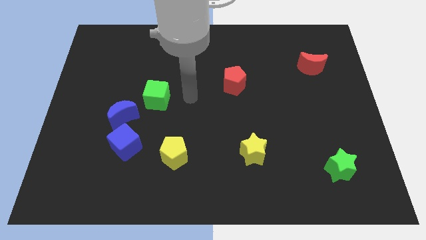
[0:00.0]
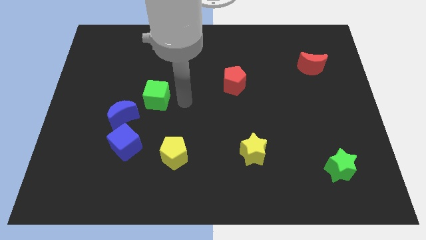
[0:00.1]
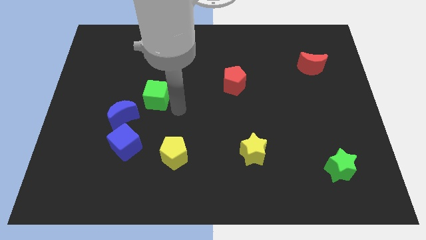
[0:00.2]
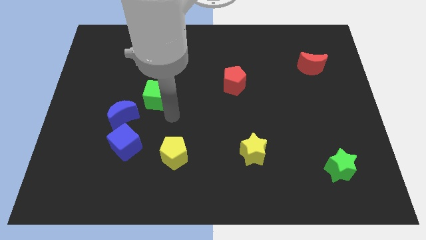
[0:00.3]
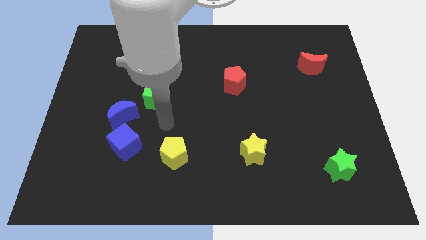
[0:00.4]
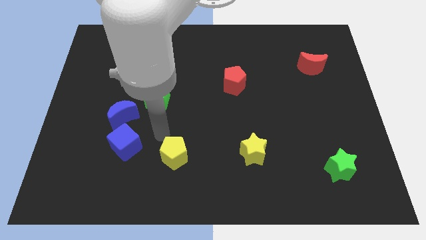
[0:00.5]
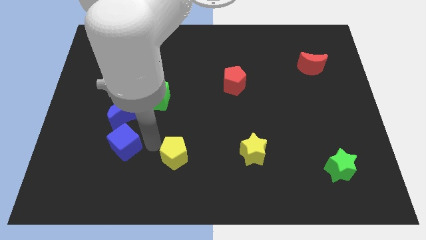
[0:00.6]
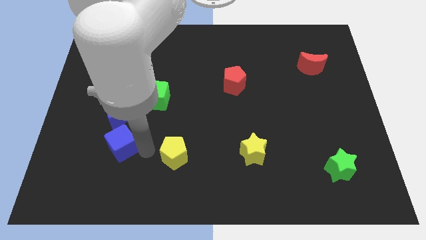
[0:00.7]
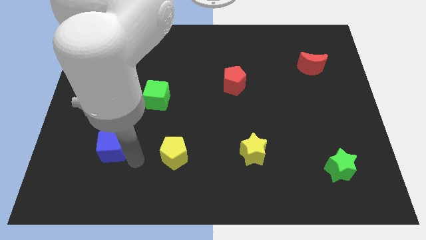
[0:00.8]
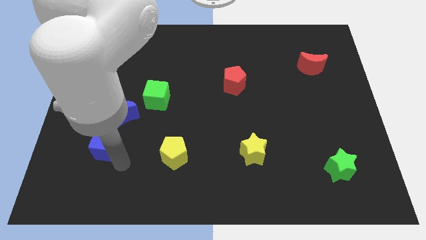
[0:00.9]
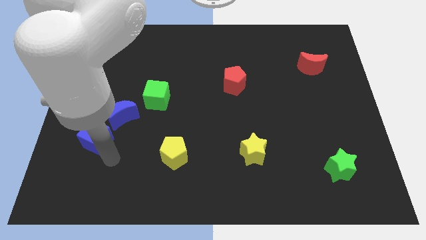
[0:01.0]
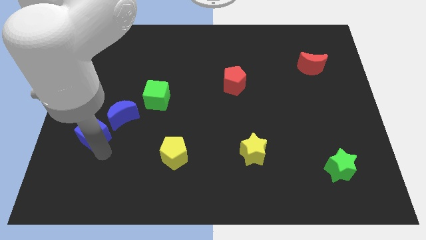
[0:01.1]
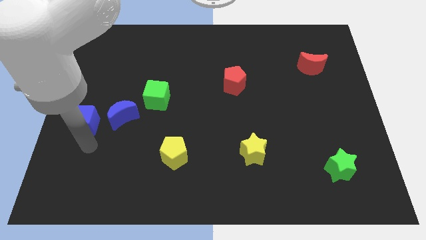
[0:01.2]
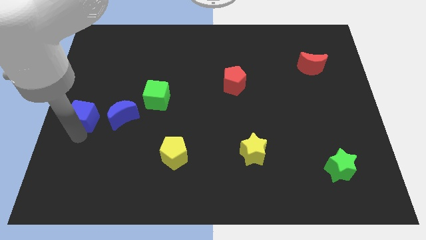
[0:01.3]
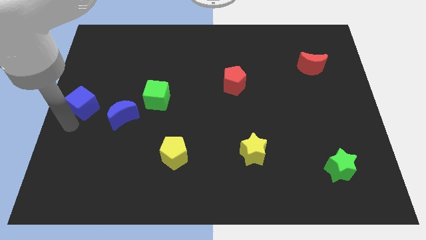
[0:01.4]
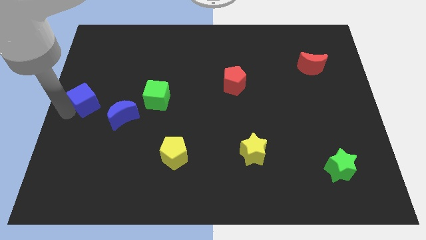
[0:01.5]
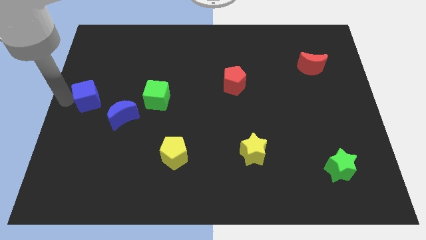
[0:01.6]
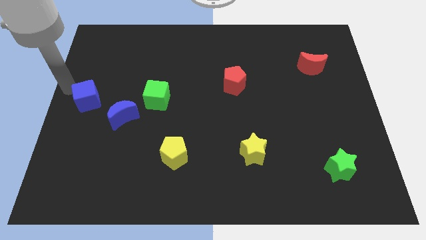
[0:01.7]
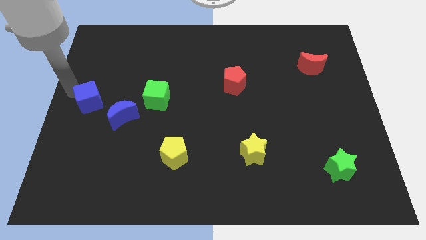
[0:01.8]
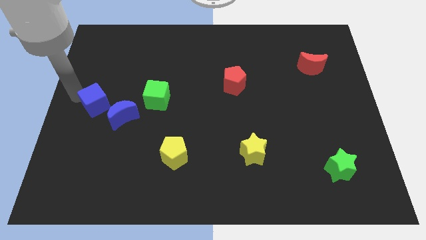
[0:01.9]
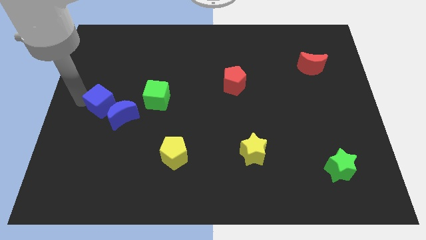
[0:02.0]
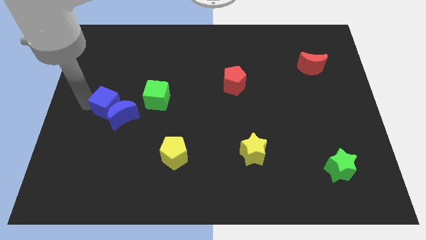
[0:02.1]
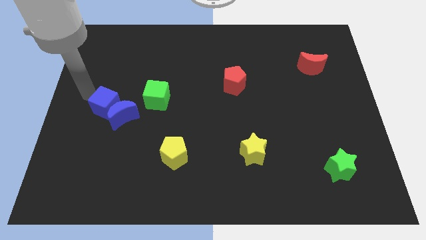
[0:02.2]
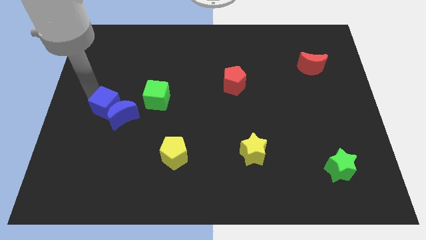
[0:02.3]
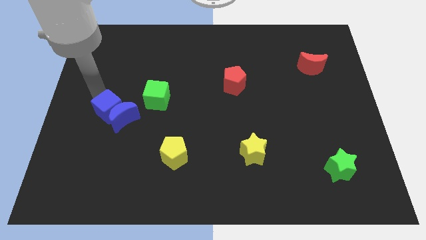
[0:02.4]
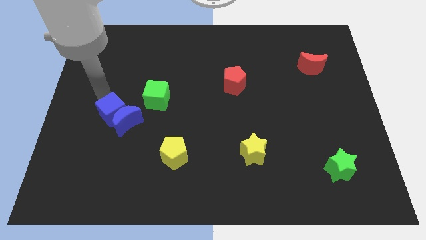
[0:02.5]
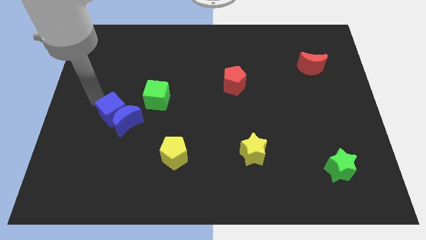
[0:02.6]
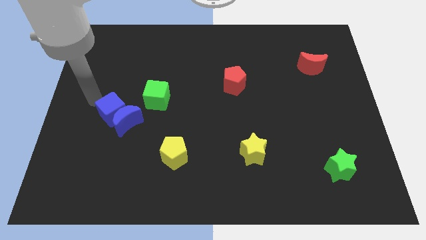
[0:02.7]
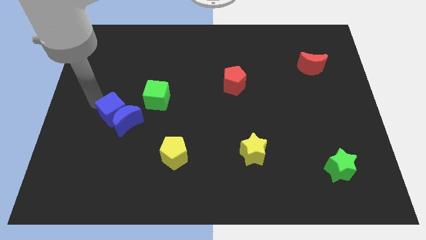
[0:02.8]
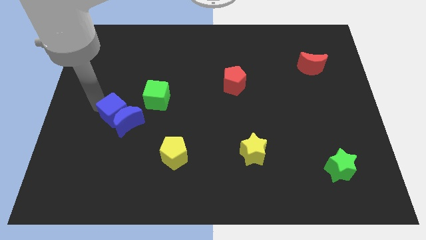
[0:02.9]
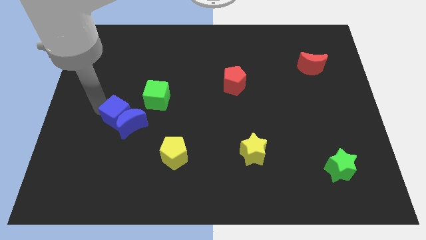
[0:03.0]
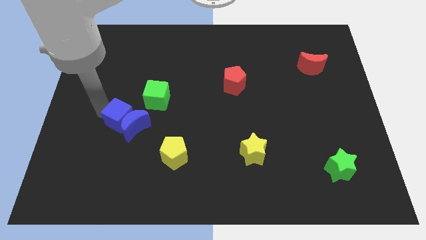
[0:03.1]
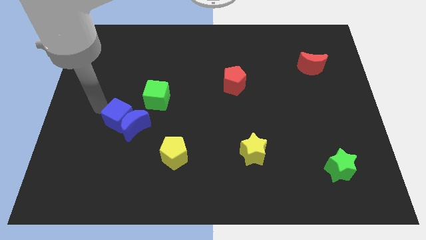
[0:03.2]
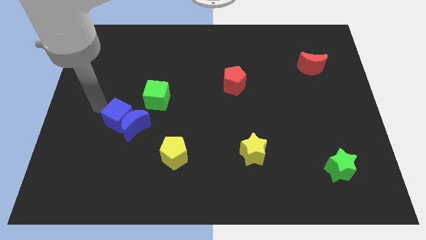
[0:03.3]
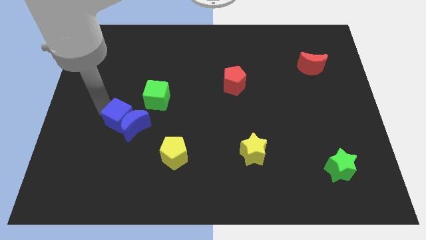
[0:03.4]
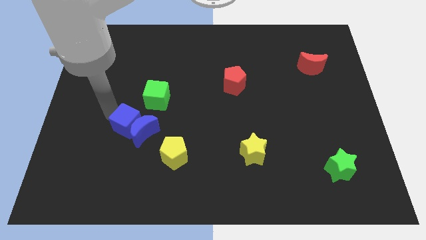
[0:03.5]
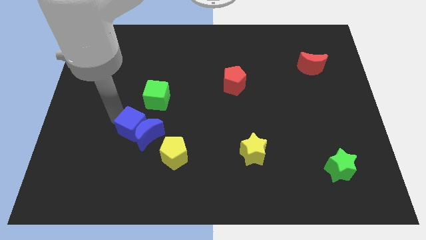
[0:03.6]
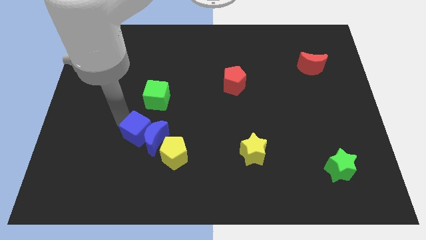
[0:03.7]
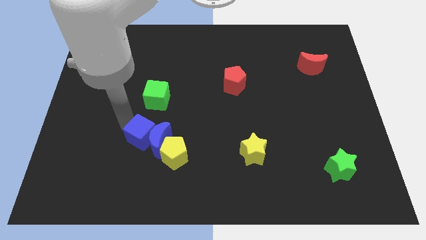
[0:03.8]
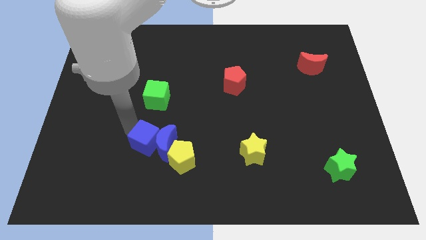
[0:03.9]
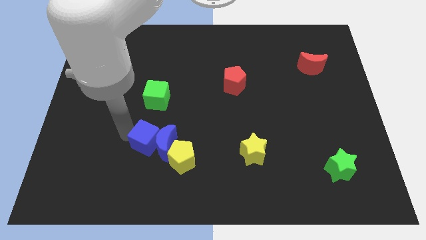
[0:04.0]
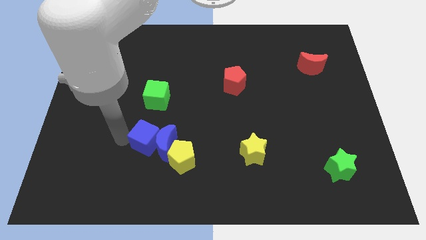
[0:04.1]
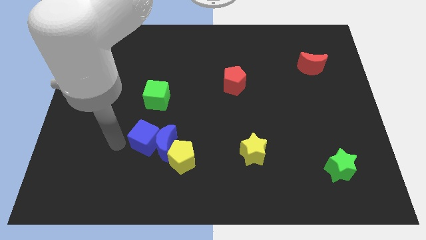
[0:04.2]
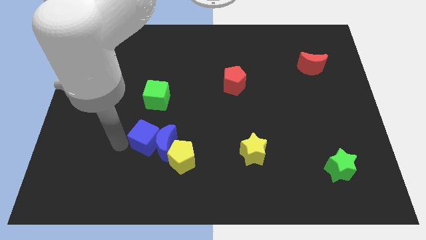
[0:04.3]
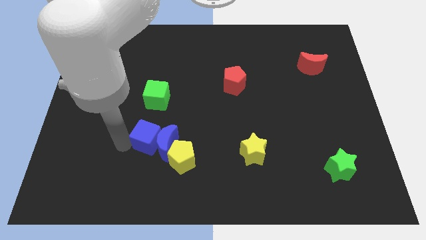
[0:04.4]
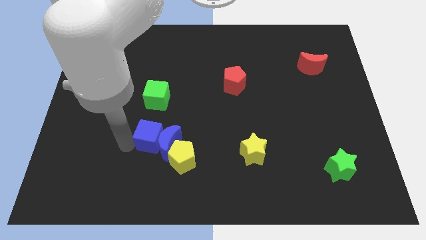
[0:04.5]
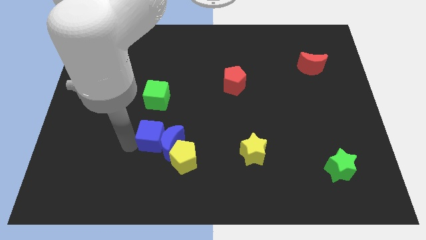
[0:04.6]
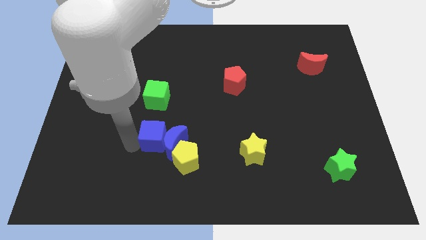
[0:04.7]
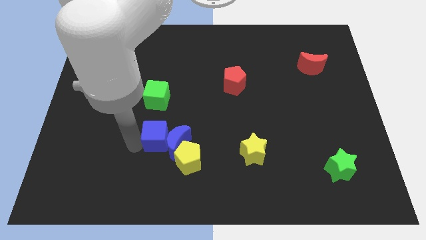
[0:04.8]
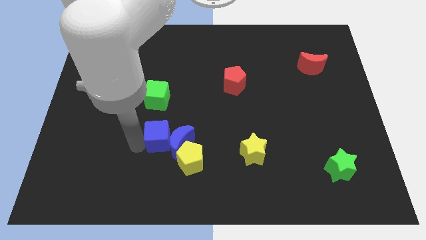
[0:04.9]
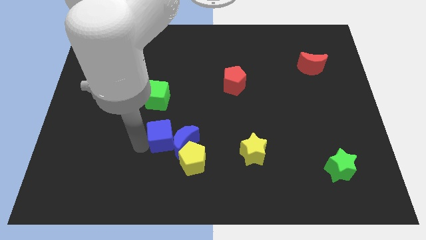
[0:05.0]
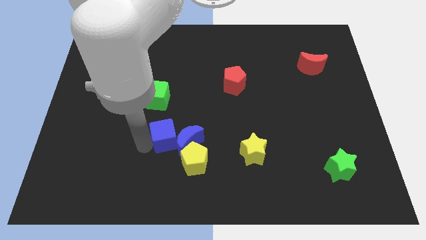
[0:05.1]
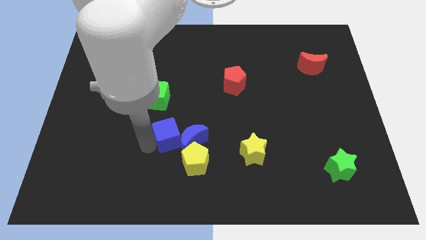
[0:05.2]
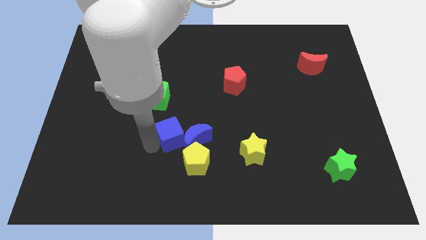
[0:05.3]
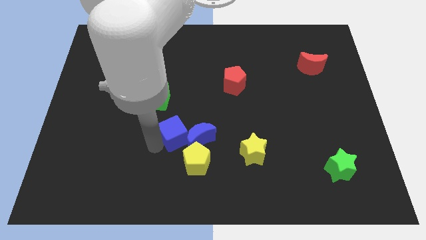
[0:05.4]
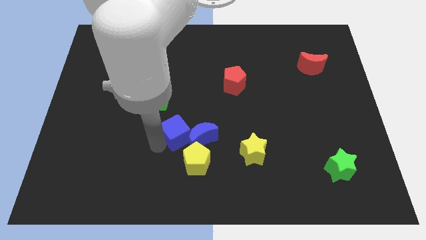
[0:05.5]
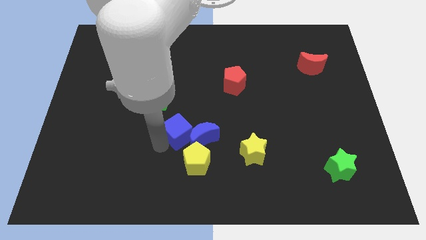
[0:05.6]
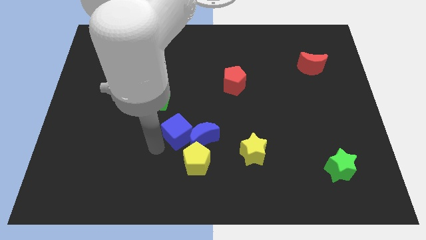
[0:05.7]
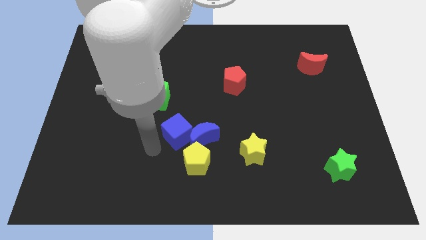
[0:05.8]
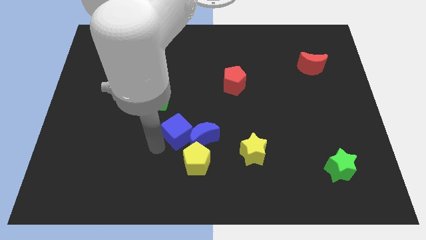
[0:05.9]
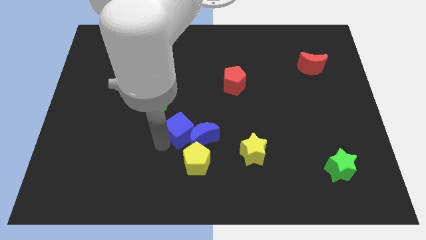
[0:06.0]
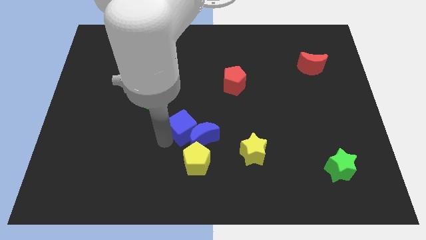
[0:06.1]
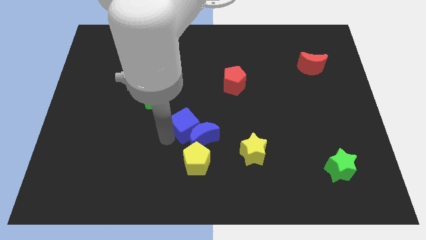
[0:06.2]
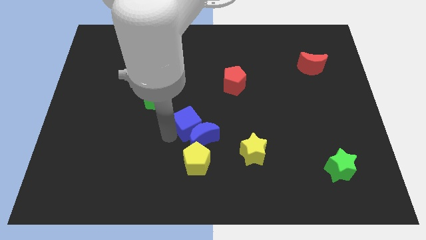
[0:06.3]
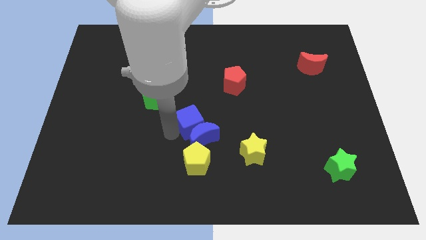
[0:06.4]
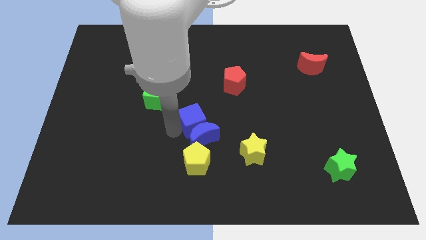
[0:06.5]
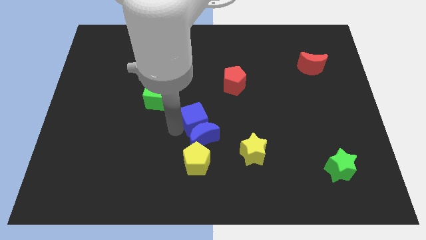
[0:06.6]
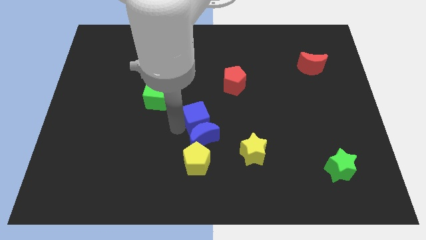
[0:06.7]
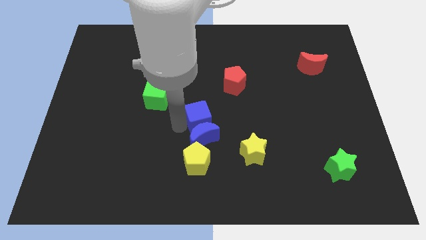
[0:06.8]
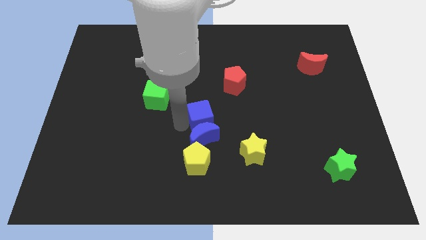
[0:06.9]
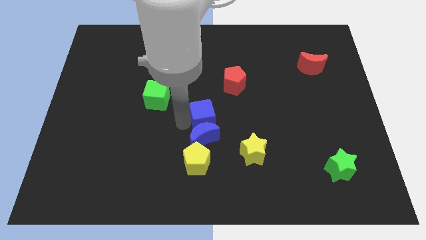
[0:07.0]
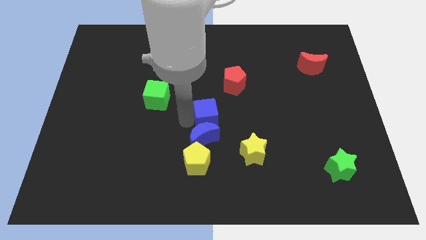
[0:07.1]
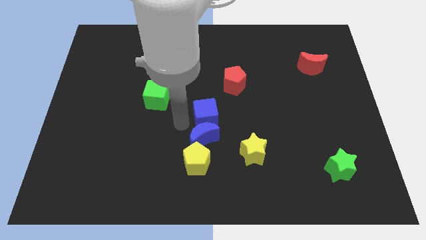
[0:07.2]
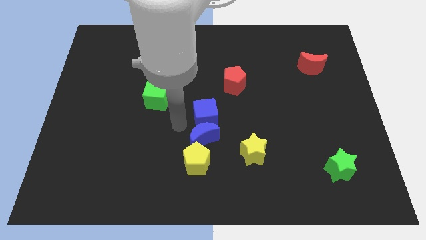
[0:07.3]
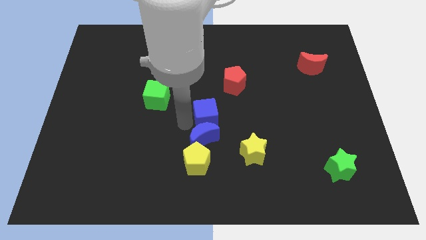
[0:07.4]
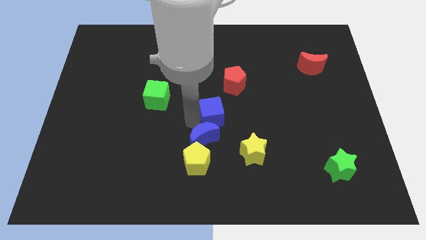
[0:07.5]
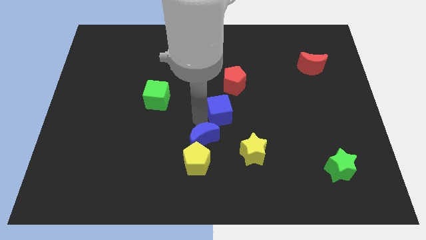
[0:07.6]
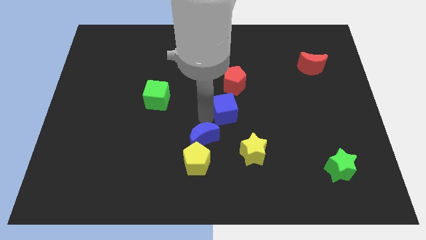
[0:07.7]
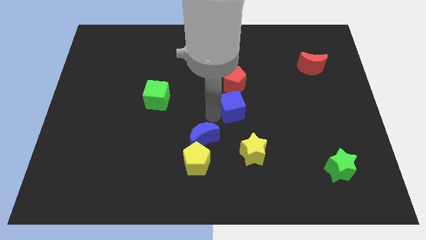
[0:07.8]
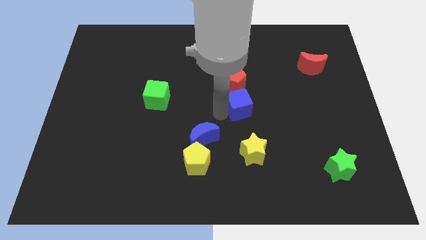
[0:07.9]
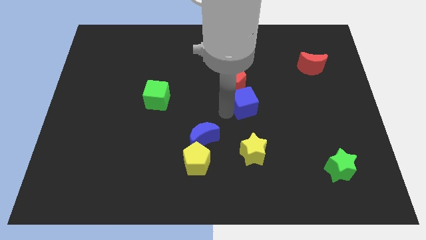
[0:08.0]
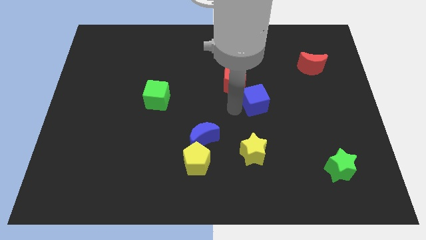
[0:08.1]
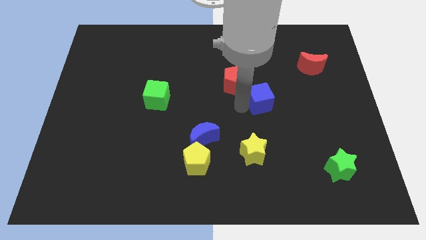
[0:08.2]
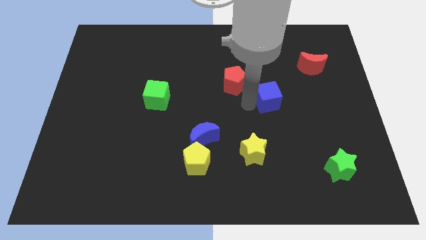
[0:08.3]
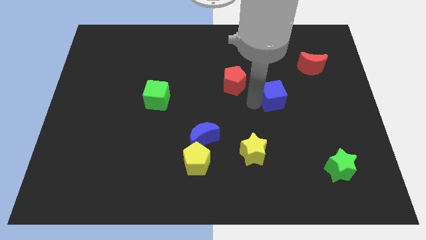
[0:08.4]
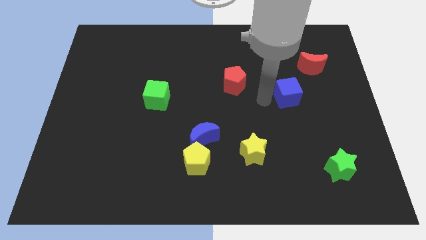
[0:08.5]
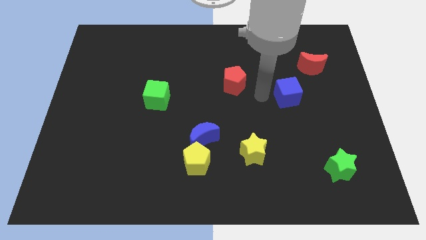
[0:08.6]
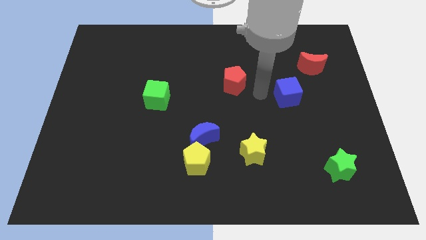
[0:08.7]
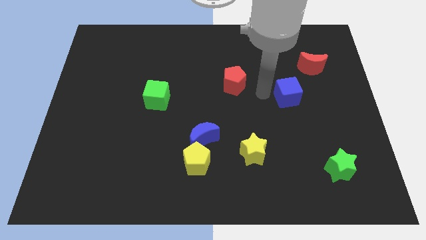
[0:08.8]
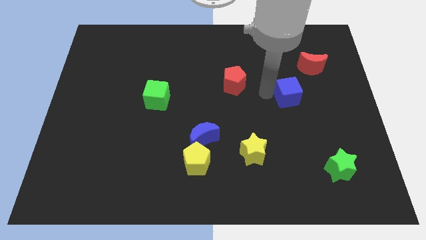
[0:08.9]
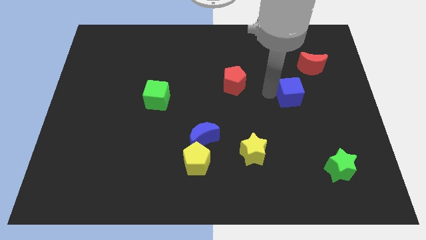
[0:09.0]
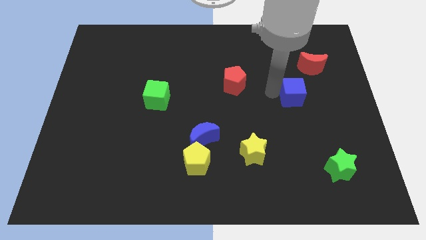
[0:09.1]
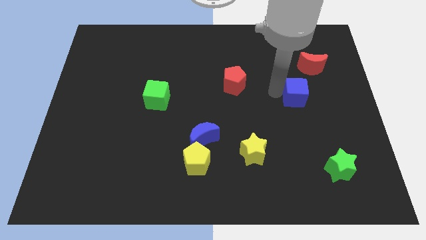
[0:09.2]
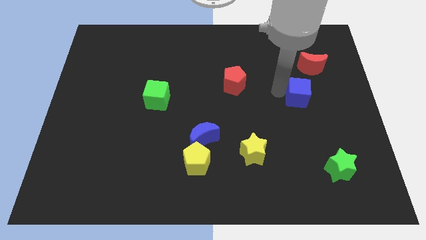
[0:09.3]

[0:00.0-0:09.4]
push the blue cube to the bottom side of the red moon
